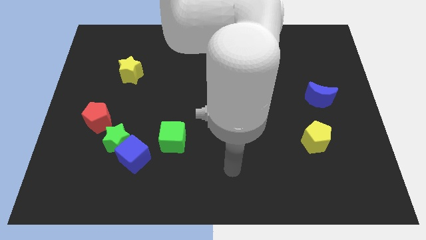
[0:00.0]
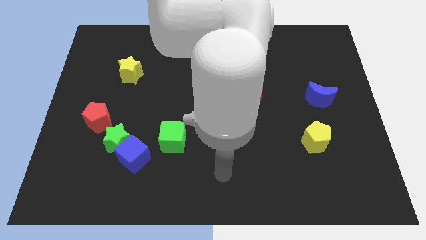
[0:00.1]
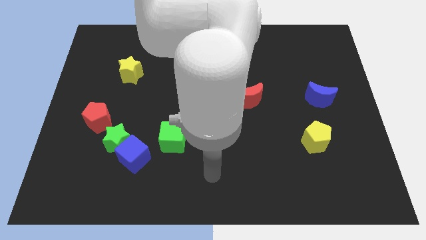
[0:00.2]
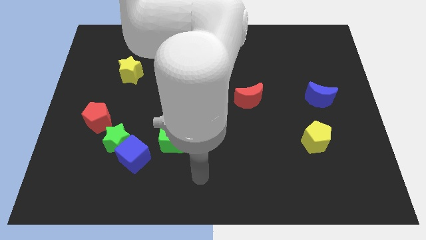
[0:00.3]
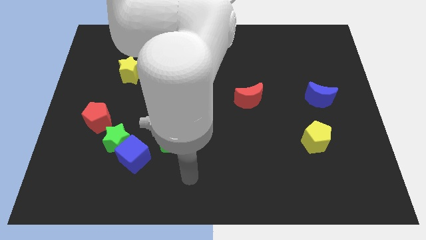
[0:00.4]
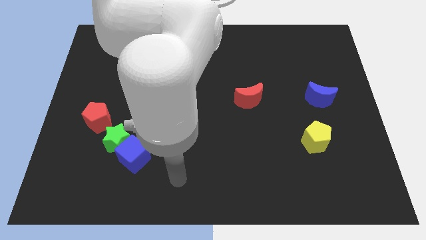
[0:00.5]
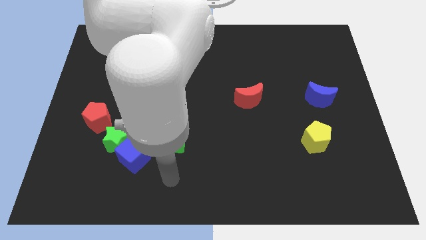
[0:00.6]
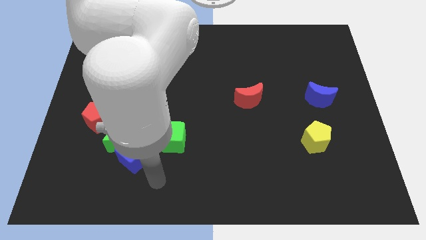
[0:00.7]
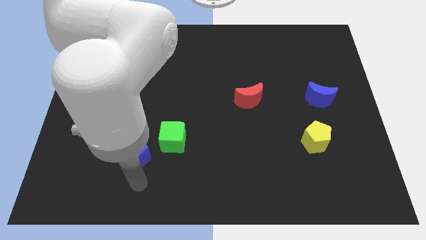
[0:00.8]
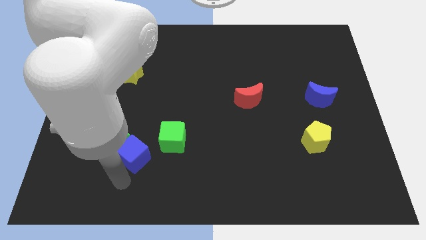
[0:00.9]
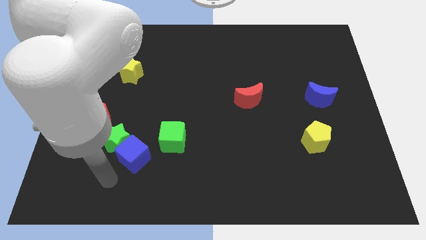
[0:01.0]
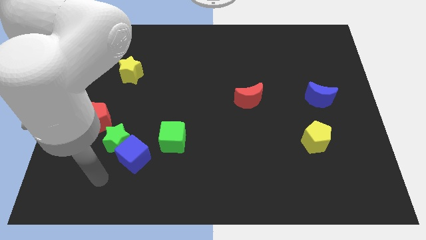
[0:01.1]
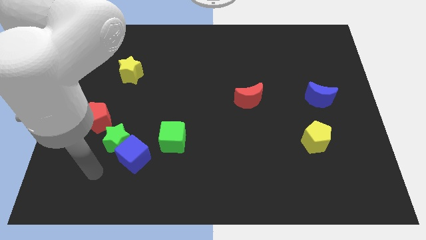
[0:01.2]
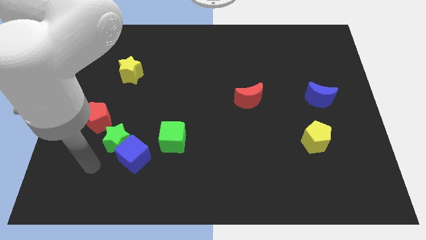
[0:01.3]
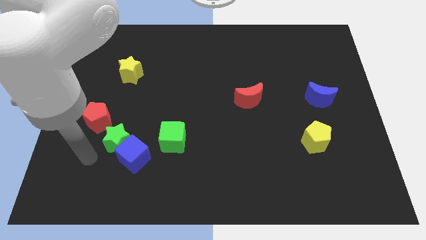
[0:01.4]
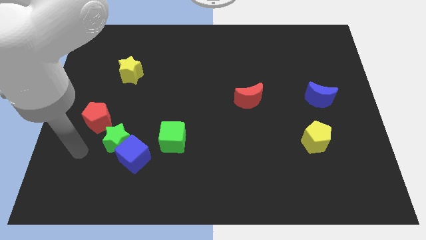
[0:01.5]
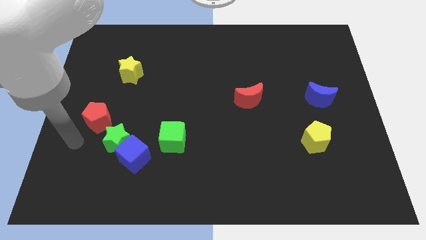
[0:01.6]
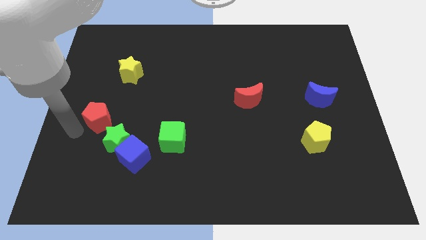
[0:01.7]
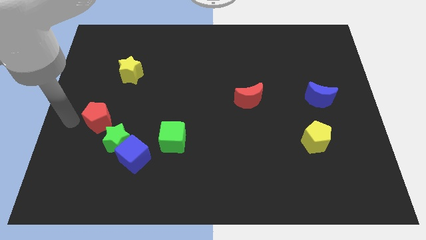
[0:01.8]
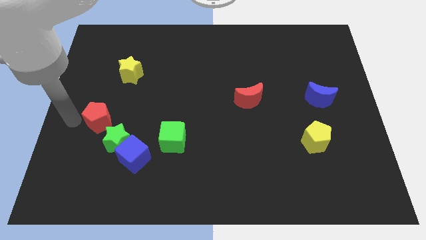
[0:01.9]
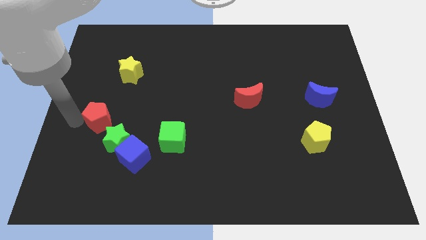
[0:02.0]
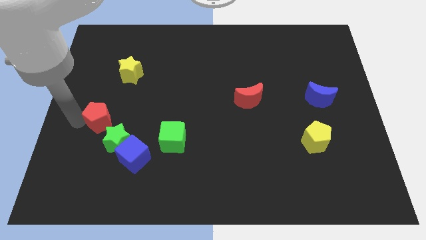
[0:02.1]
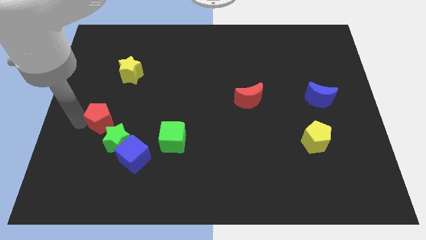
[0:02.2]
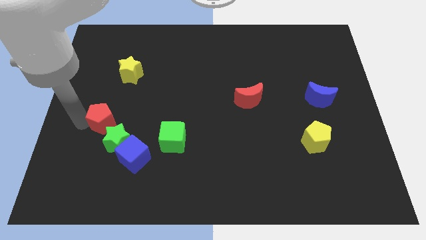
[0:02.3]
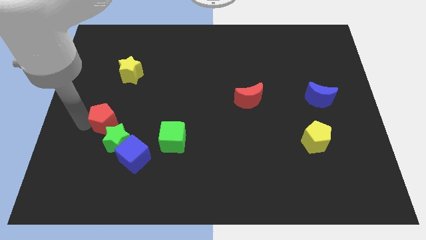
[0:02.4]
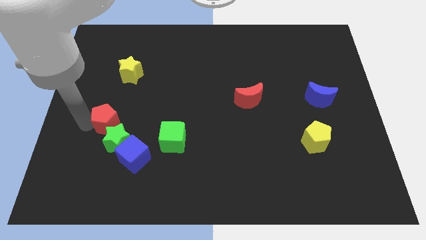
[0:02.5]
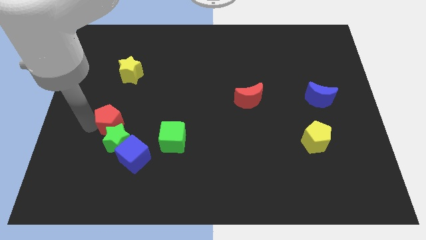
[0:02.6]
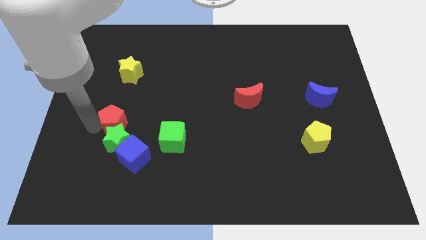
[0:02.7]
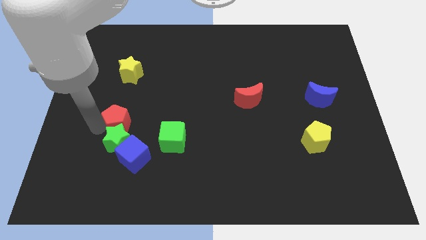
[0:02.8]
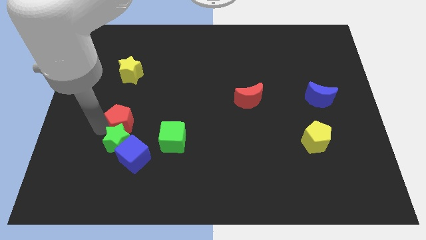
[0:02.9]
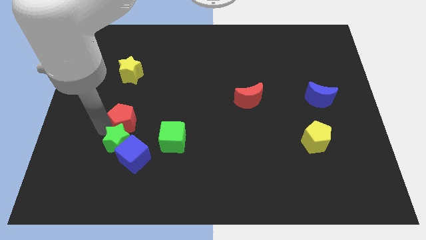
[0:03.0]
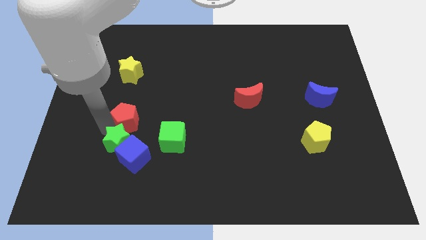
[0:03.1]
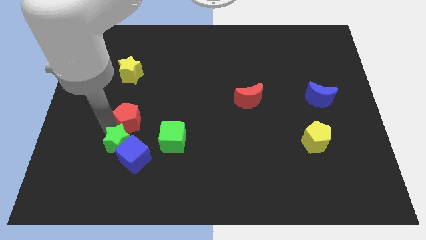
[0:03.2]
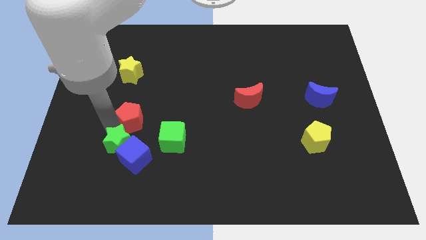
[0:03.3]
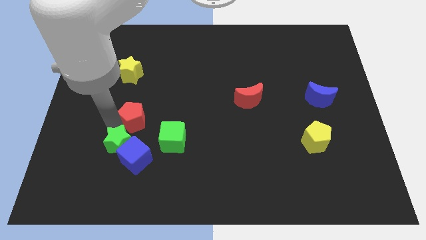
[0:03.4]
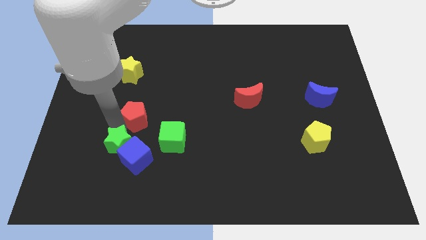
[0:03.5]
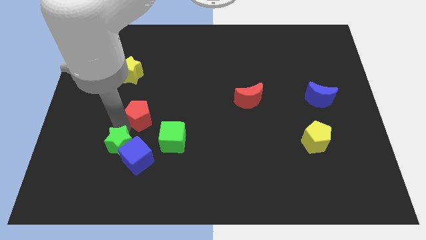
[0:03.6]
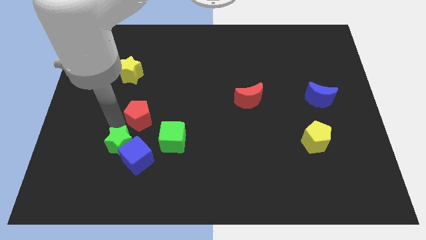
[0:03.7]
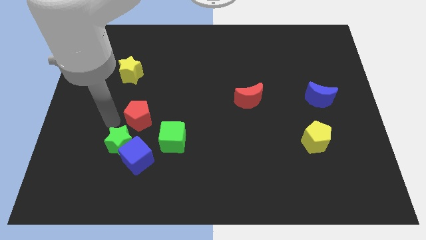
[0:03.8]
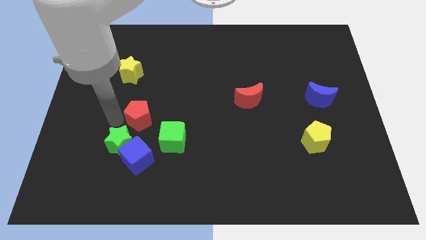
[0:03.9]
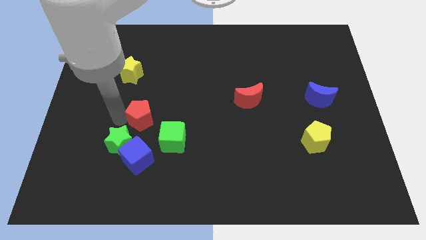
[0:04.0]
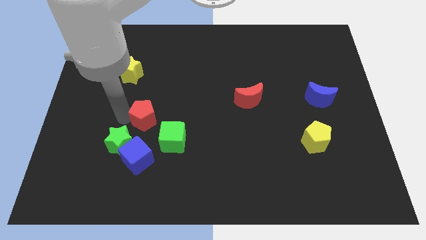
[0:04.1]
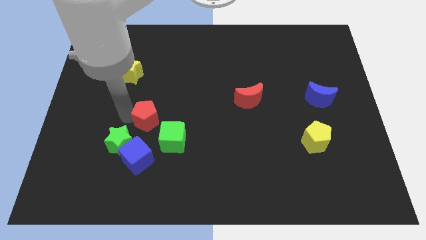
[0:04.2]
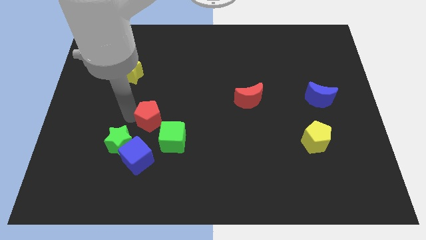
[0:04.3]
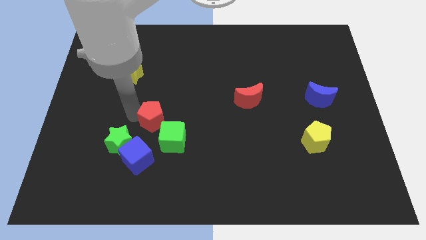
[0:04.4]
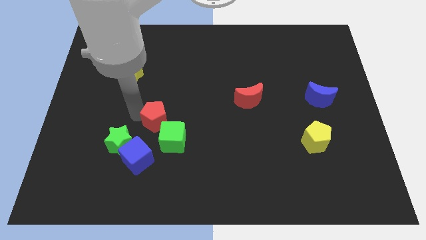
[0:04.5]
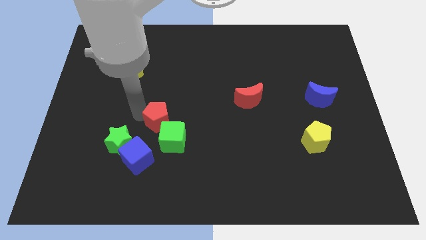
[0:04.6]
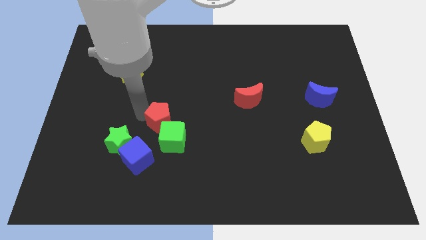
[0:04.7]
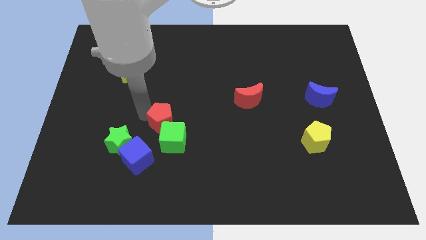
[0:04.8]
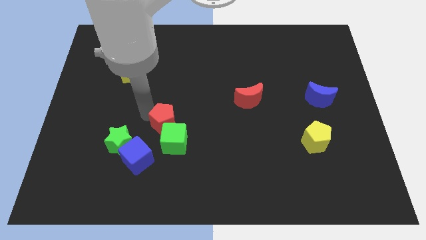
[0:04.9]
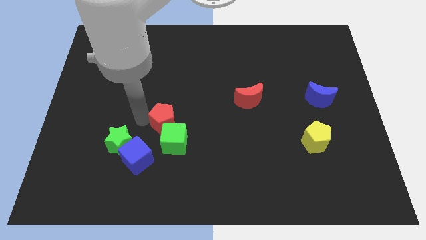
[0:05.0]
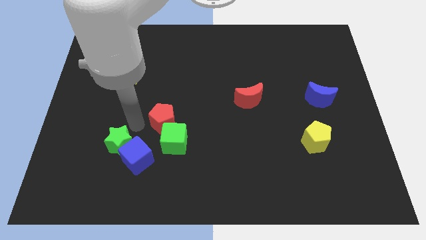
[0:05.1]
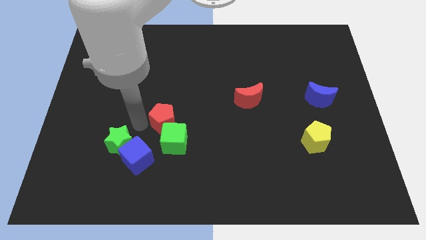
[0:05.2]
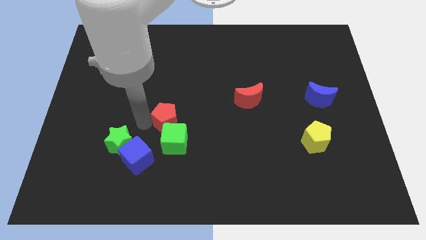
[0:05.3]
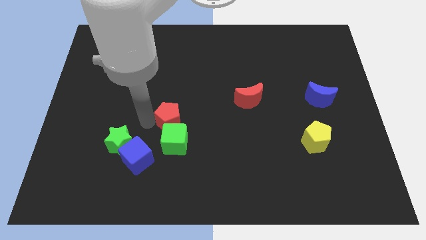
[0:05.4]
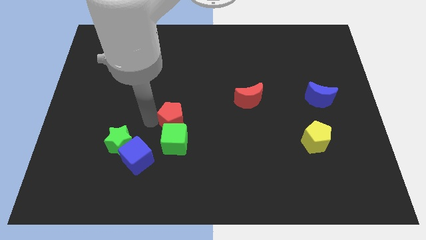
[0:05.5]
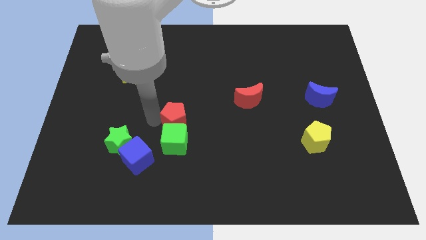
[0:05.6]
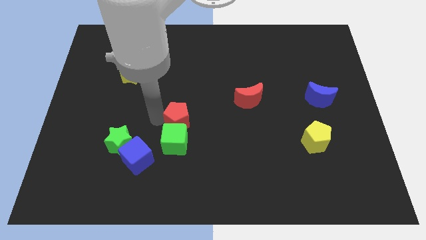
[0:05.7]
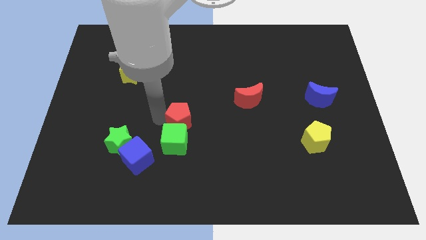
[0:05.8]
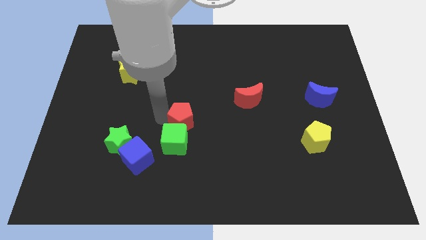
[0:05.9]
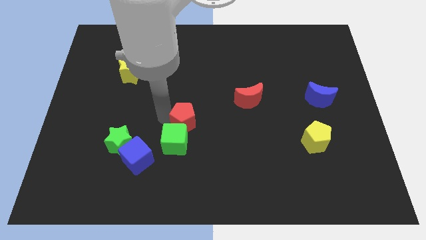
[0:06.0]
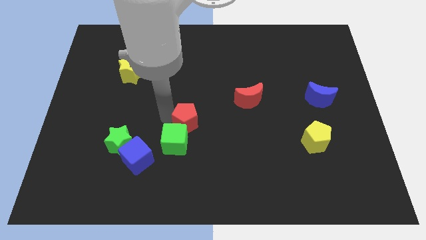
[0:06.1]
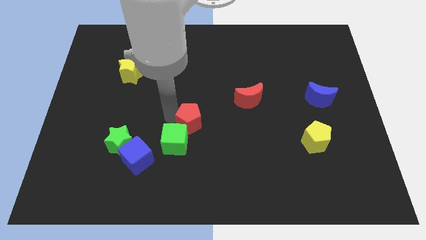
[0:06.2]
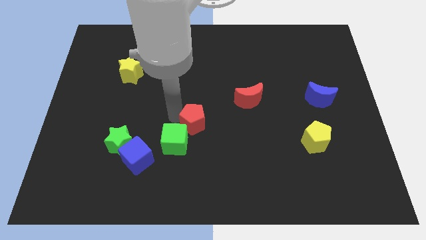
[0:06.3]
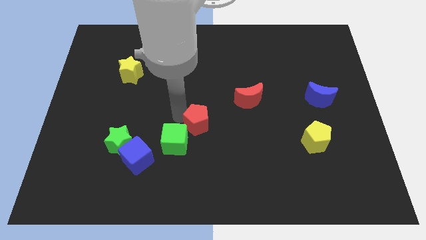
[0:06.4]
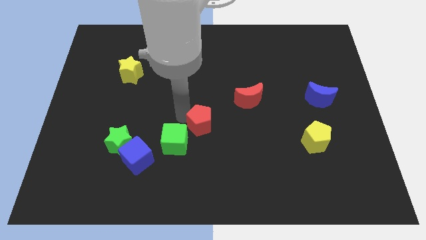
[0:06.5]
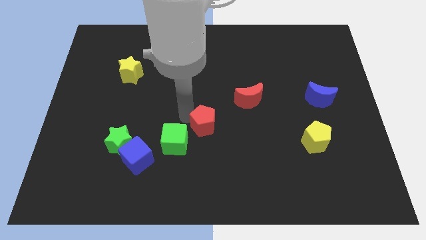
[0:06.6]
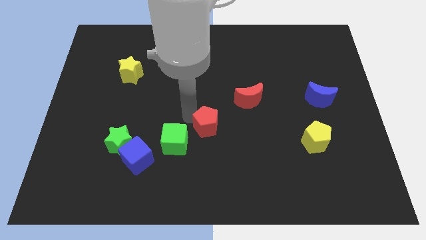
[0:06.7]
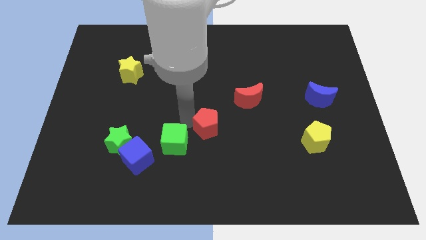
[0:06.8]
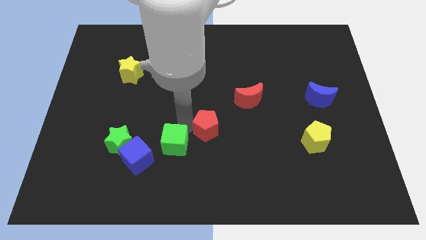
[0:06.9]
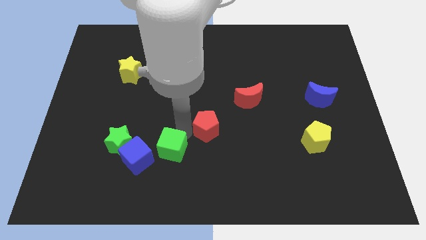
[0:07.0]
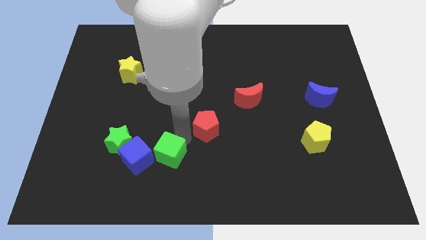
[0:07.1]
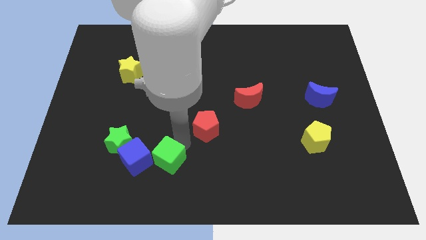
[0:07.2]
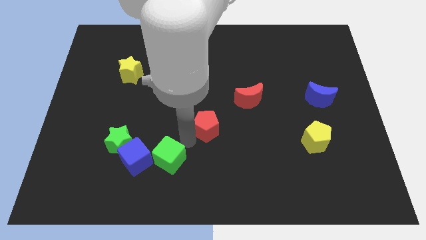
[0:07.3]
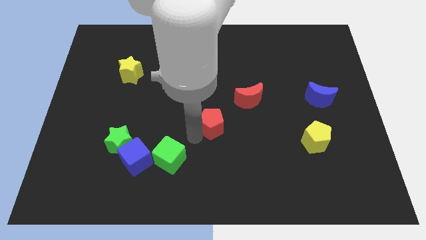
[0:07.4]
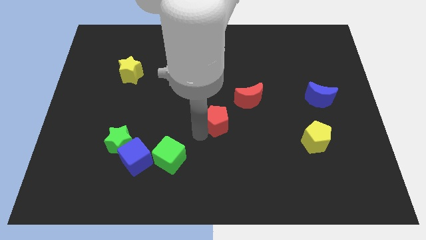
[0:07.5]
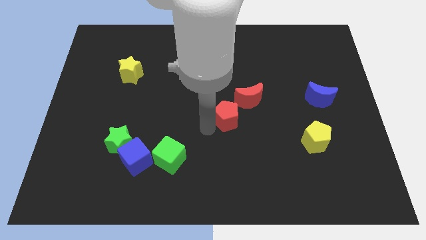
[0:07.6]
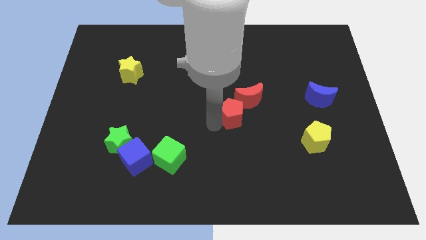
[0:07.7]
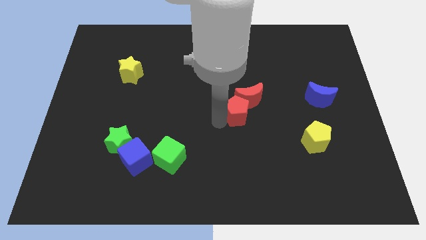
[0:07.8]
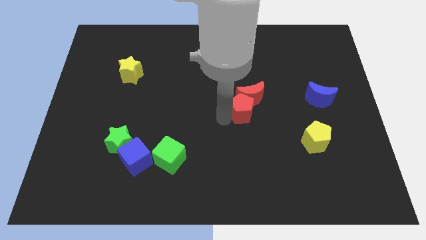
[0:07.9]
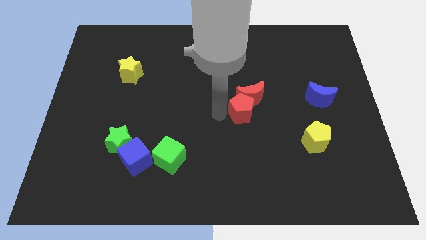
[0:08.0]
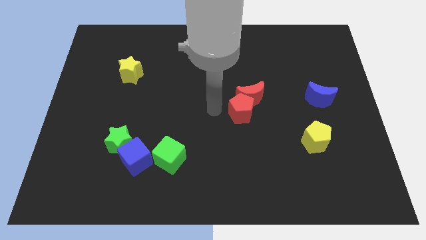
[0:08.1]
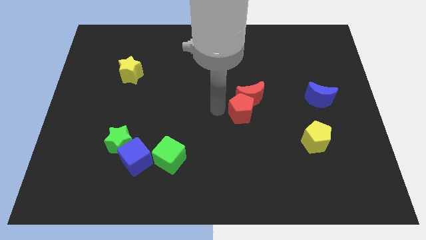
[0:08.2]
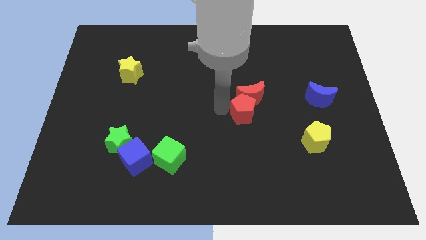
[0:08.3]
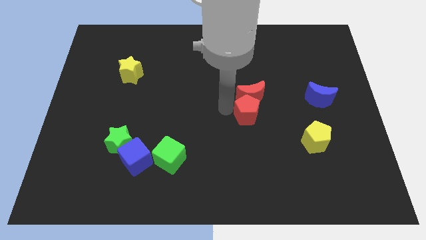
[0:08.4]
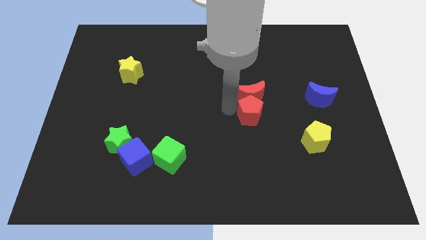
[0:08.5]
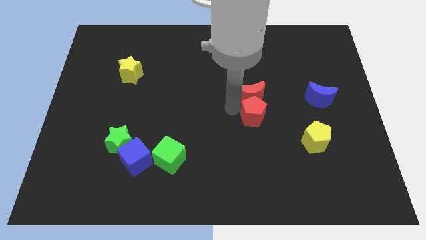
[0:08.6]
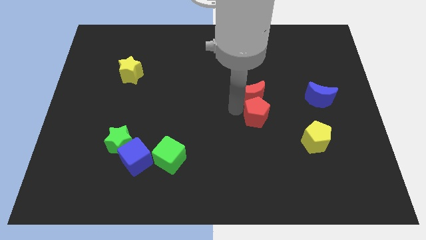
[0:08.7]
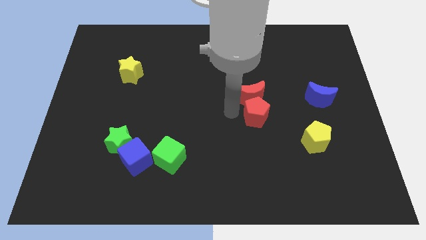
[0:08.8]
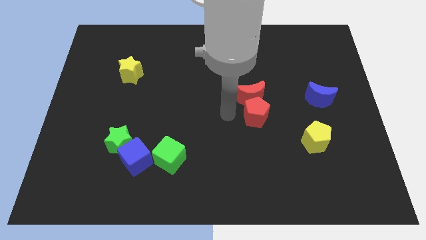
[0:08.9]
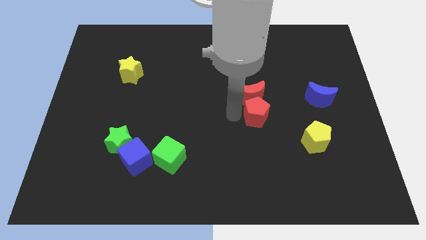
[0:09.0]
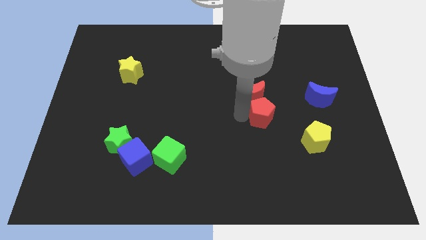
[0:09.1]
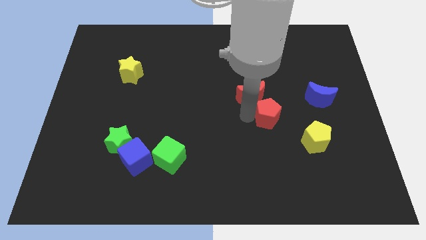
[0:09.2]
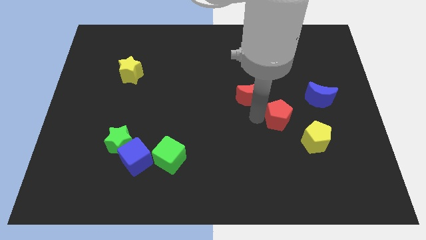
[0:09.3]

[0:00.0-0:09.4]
move the red pentagon diagonally down and to the left of the blue moon
